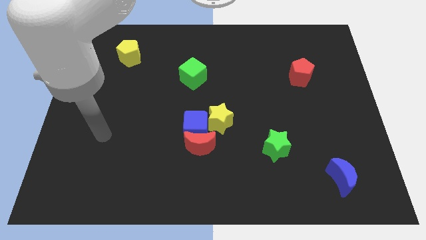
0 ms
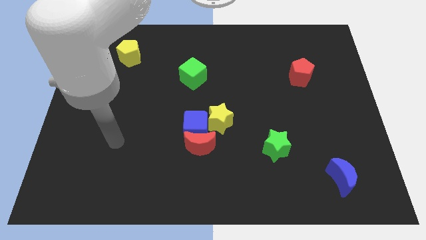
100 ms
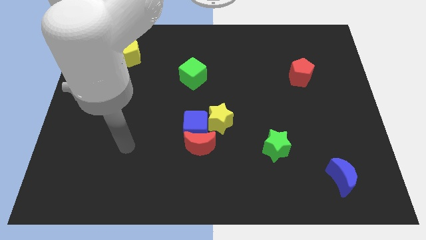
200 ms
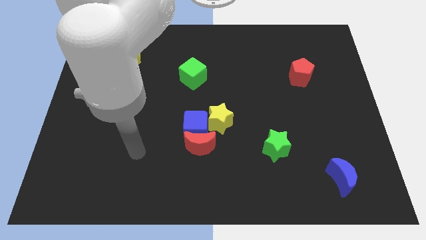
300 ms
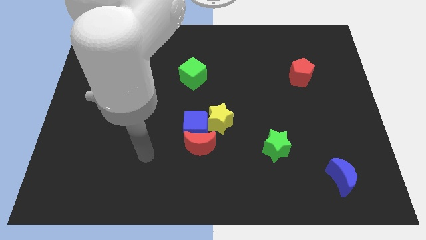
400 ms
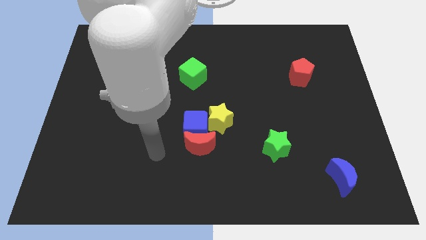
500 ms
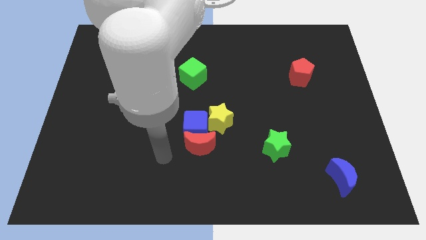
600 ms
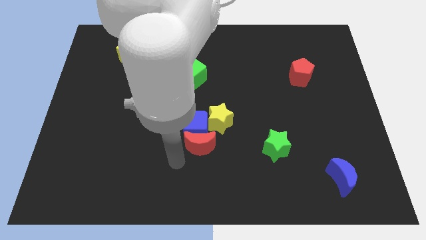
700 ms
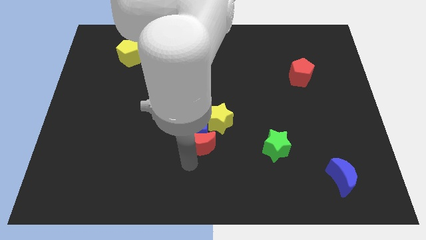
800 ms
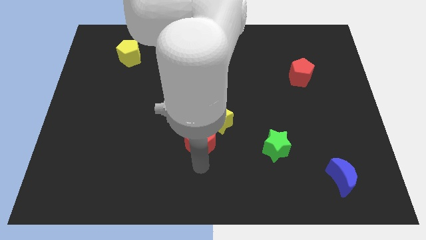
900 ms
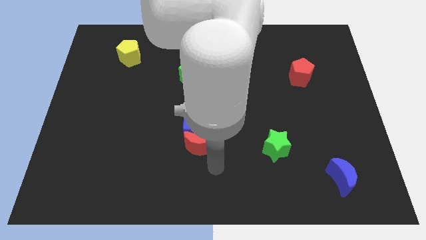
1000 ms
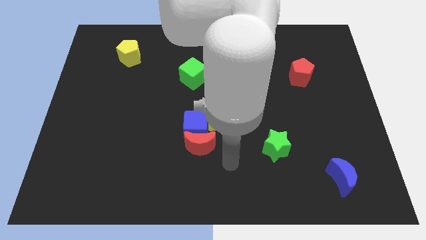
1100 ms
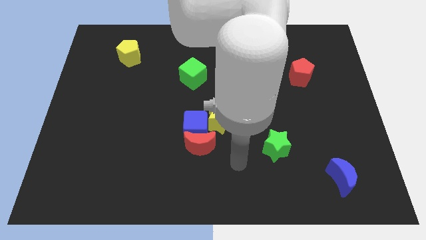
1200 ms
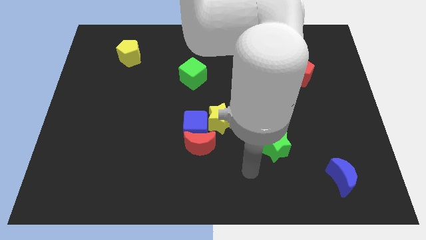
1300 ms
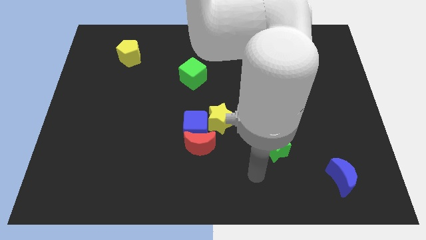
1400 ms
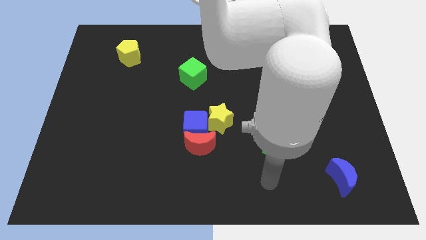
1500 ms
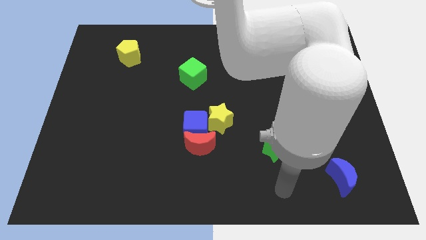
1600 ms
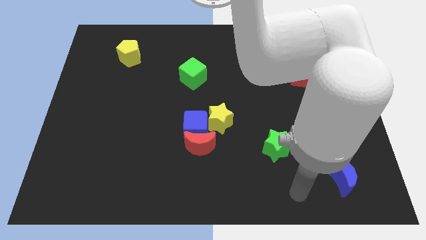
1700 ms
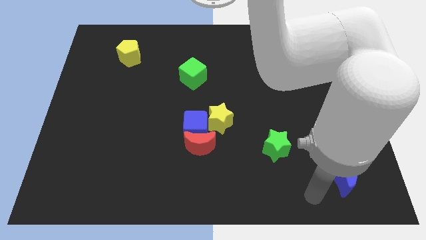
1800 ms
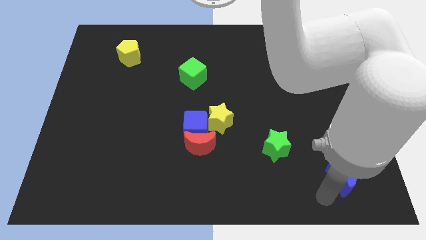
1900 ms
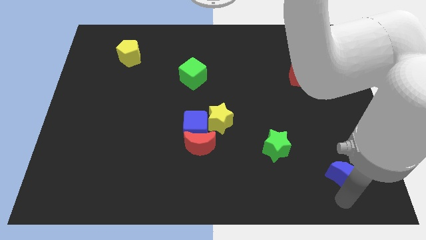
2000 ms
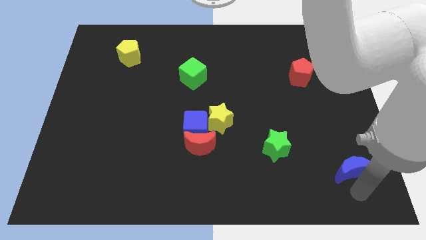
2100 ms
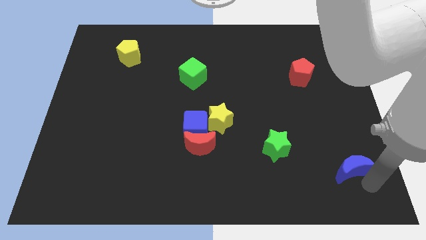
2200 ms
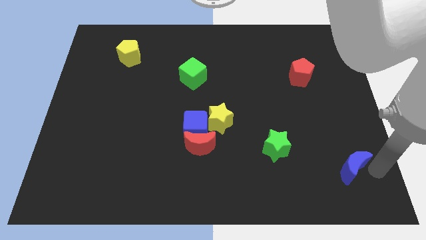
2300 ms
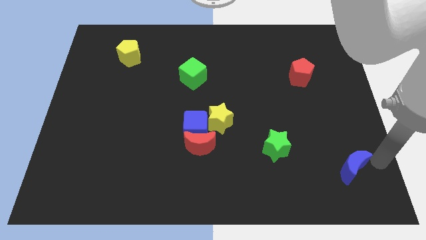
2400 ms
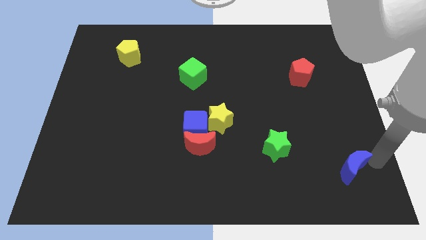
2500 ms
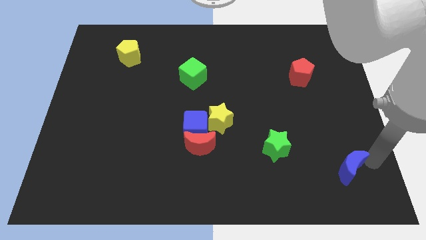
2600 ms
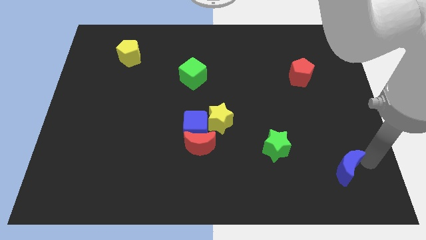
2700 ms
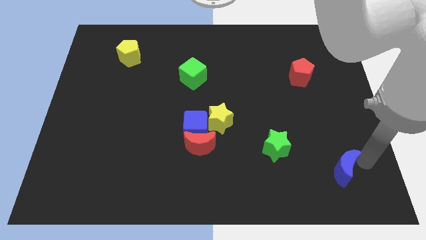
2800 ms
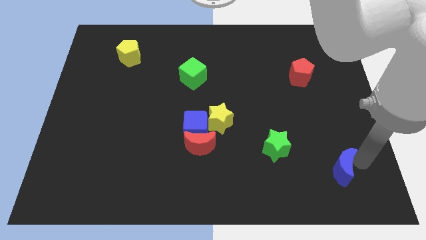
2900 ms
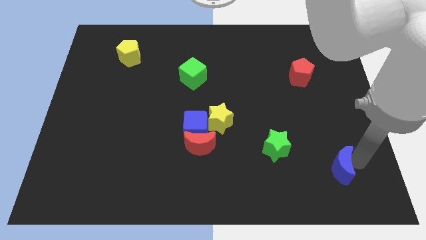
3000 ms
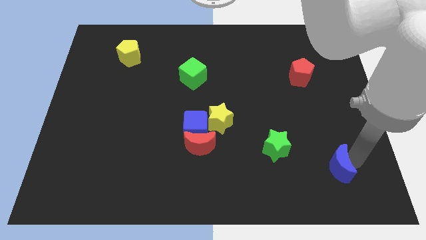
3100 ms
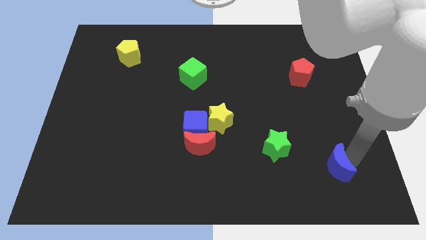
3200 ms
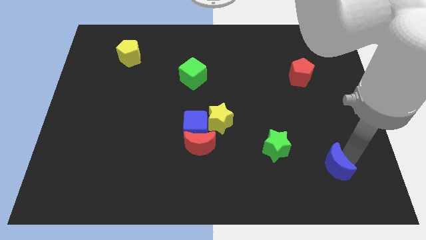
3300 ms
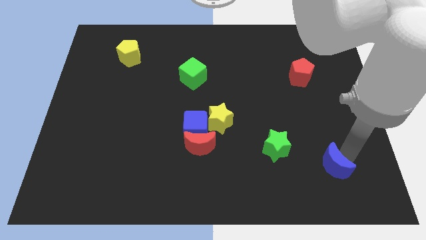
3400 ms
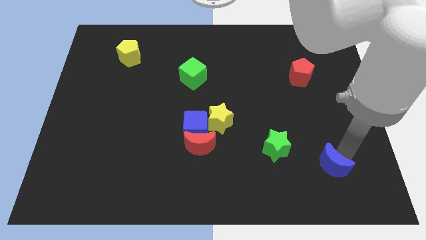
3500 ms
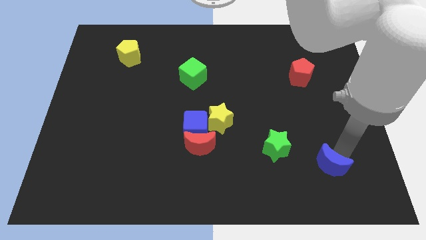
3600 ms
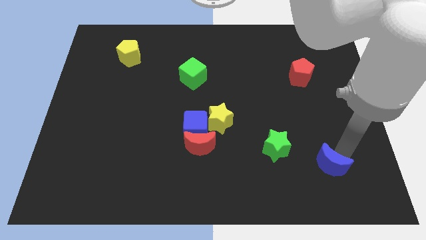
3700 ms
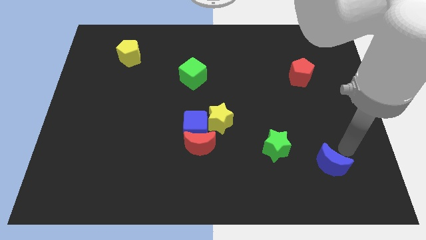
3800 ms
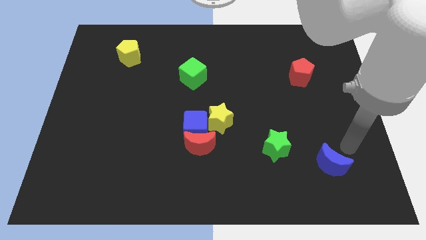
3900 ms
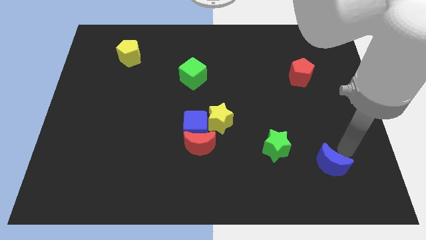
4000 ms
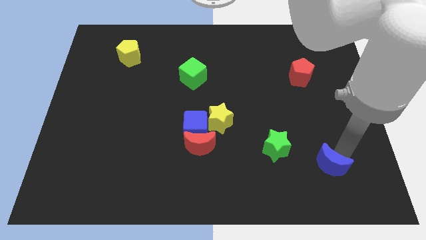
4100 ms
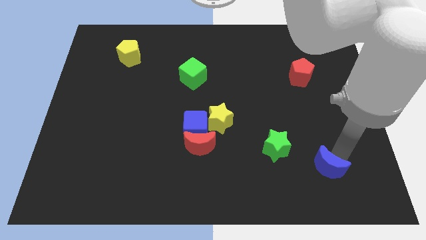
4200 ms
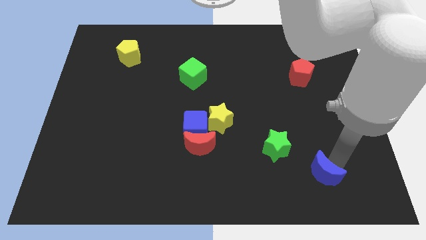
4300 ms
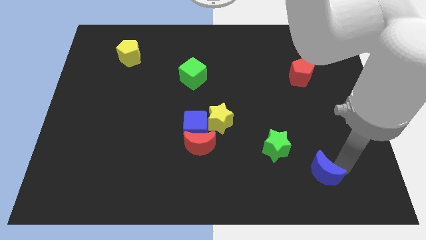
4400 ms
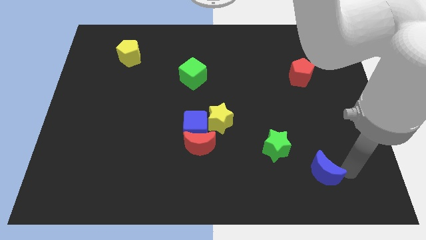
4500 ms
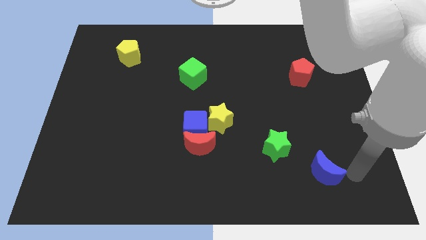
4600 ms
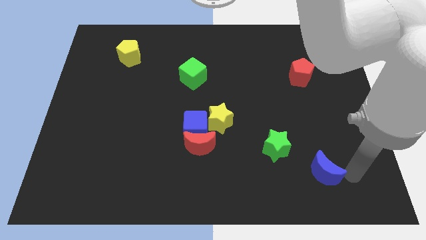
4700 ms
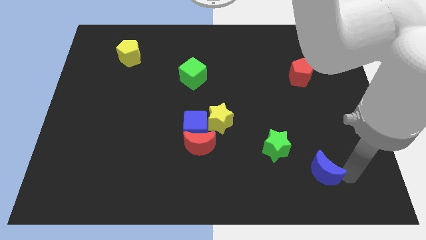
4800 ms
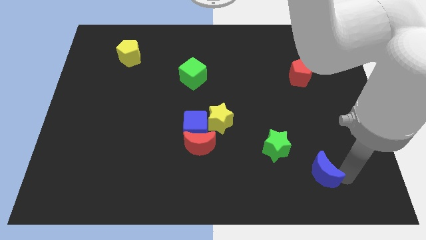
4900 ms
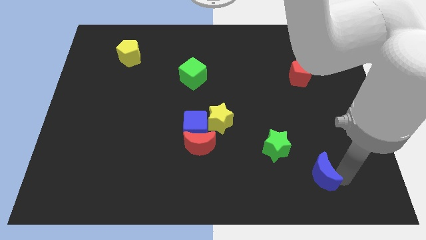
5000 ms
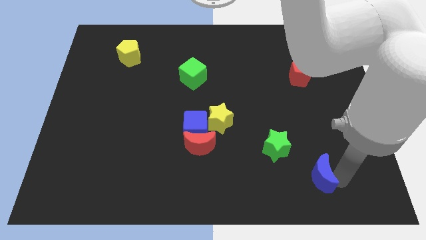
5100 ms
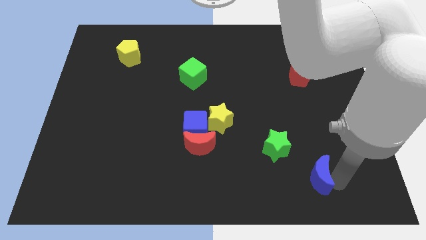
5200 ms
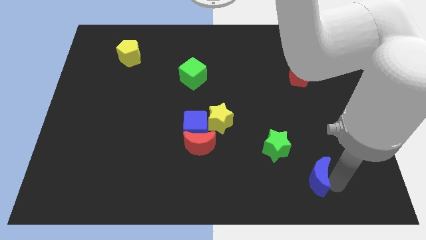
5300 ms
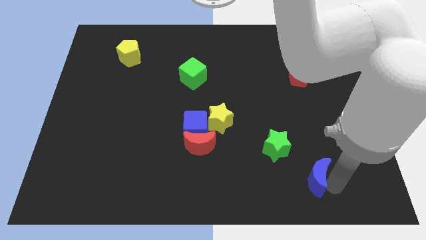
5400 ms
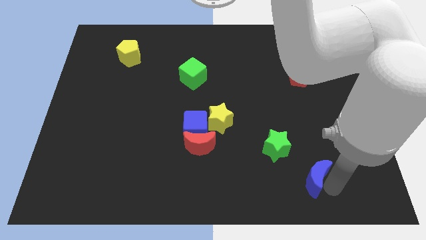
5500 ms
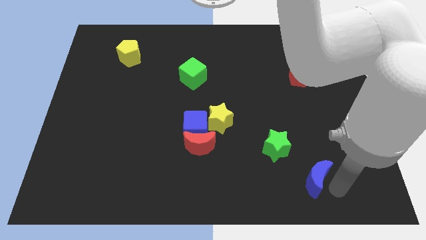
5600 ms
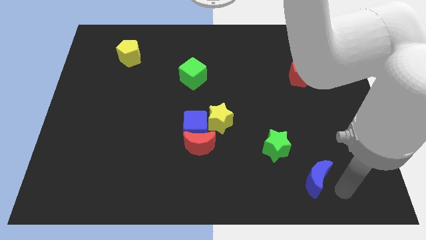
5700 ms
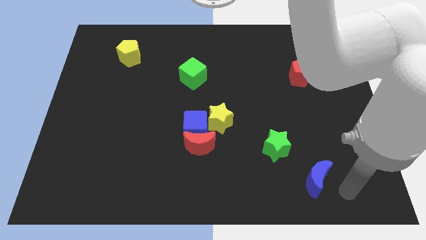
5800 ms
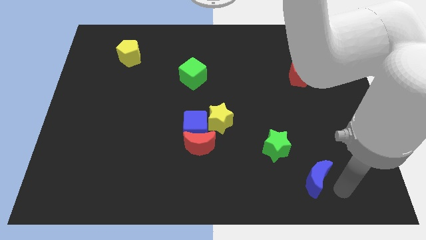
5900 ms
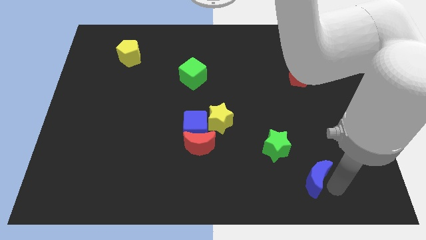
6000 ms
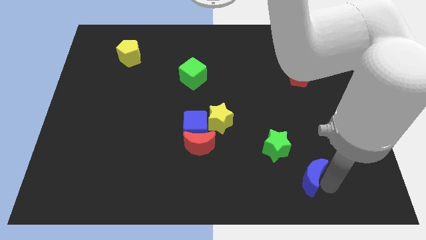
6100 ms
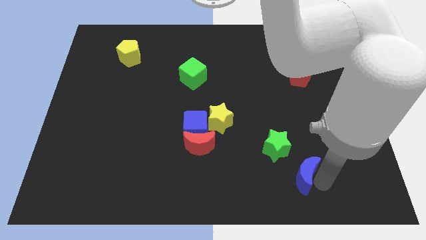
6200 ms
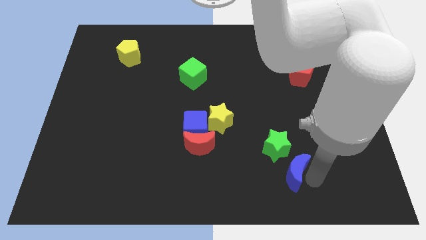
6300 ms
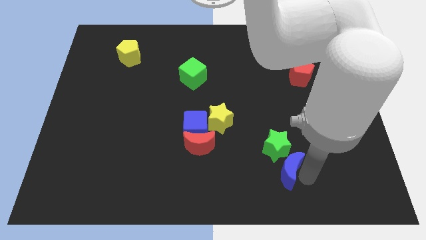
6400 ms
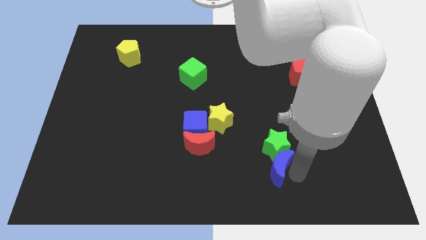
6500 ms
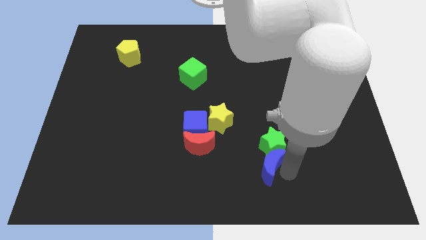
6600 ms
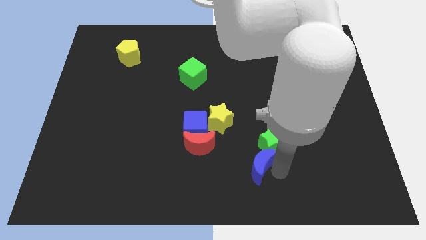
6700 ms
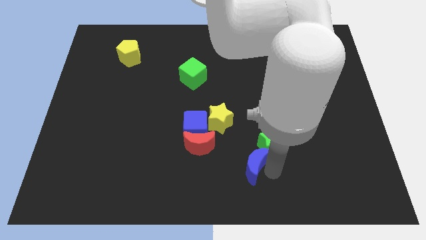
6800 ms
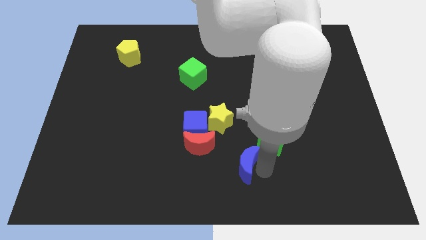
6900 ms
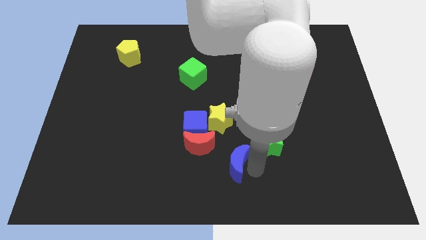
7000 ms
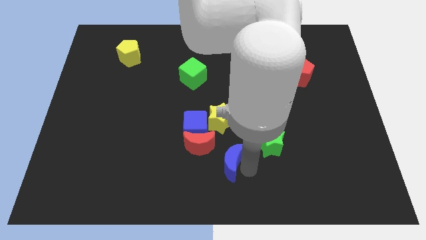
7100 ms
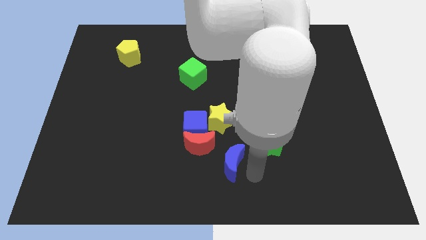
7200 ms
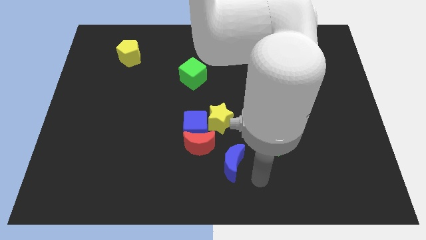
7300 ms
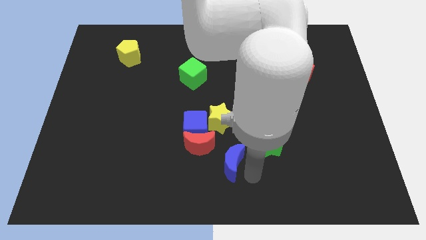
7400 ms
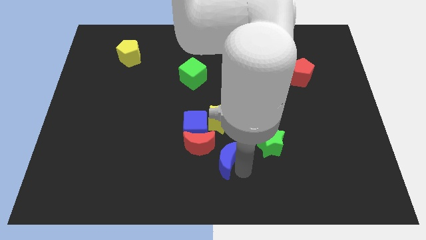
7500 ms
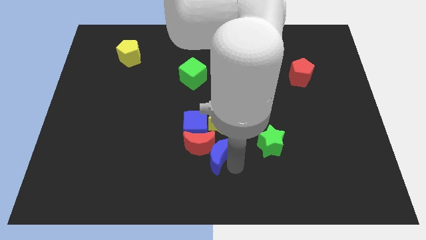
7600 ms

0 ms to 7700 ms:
put the blue moon next to the red moon
